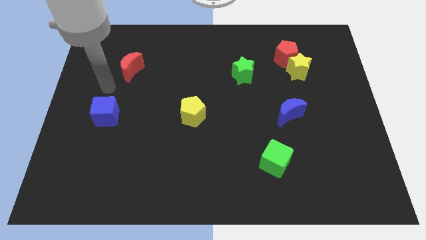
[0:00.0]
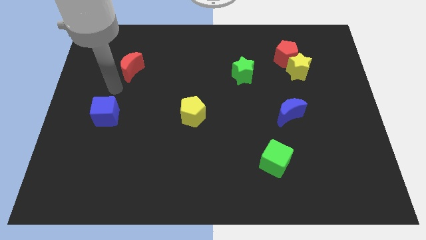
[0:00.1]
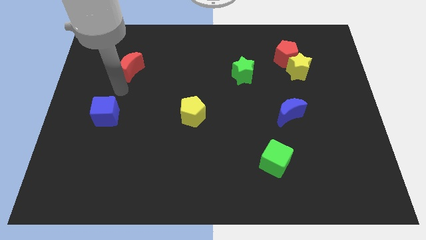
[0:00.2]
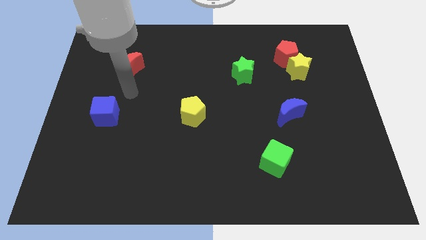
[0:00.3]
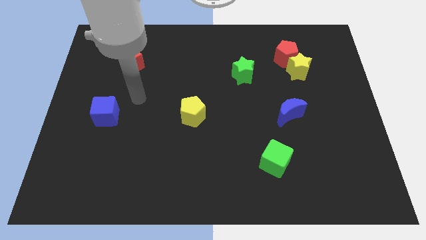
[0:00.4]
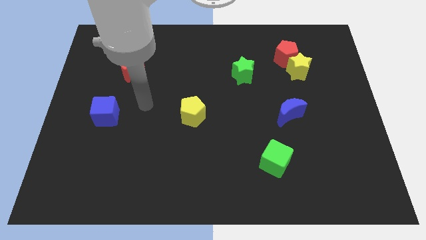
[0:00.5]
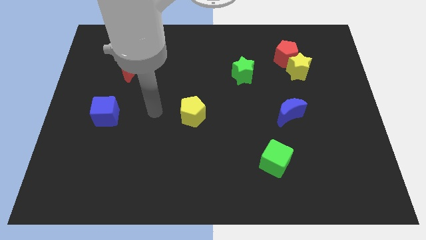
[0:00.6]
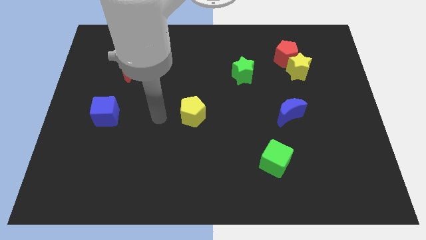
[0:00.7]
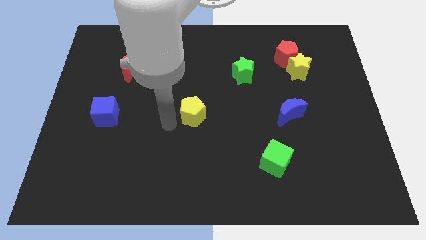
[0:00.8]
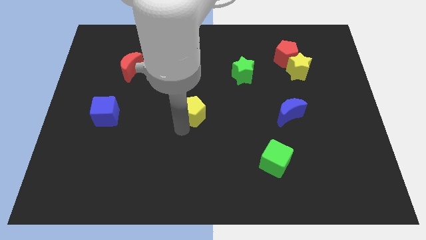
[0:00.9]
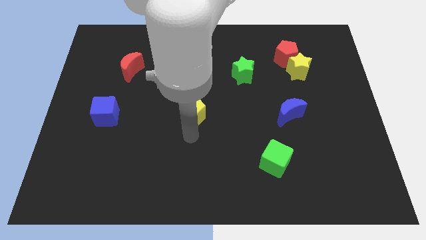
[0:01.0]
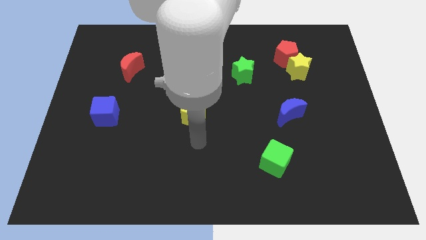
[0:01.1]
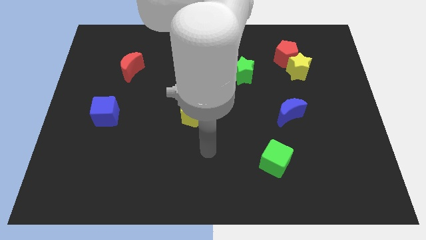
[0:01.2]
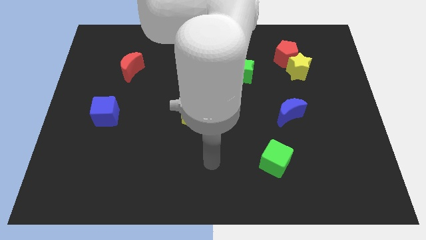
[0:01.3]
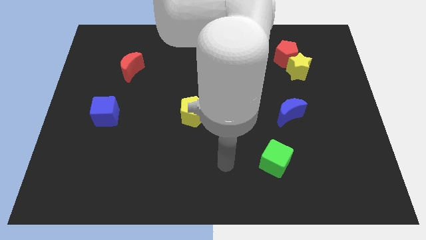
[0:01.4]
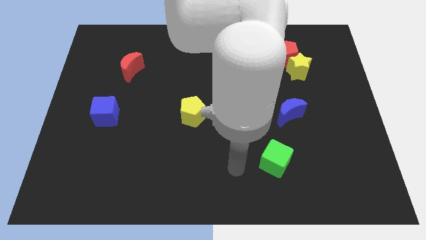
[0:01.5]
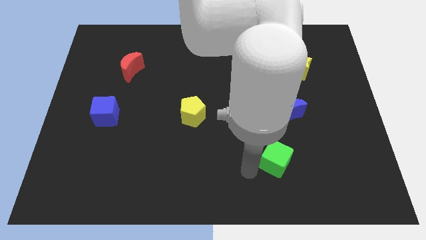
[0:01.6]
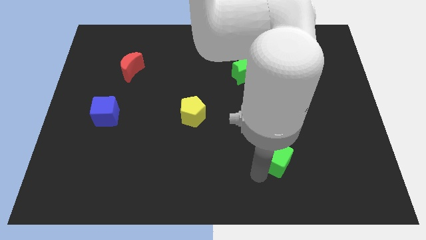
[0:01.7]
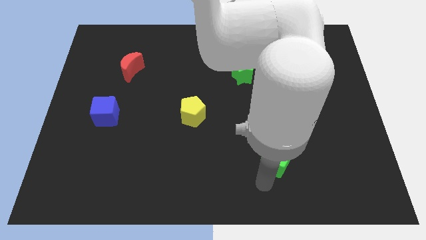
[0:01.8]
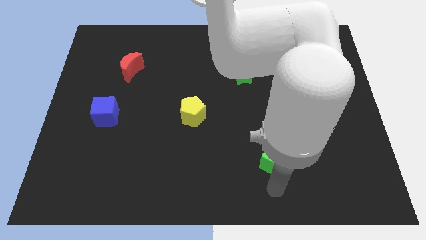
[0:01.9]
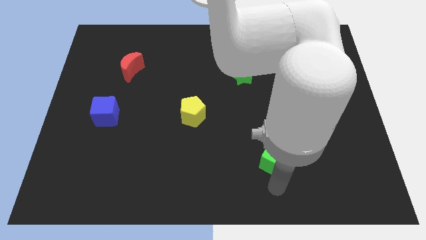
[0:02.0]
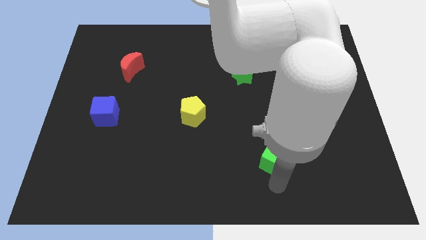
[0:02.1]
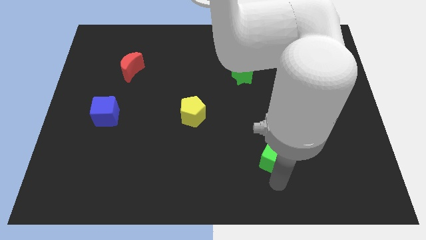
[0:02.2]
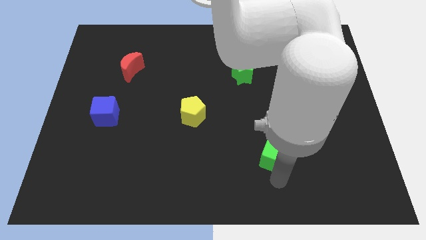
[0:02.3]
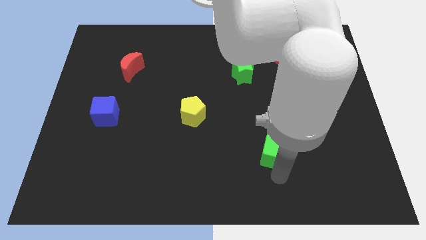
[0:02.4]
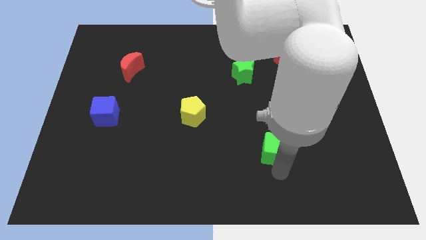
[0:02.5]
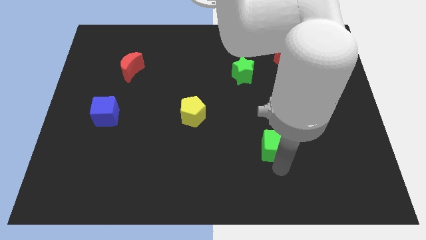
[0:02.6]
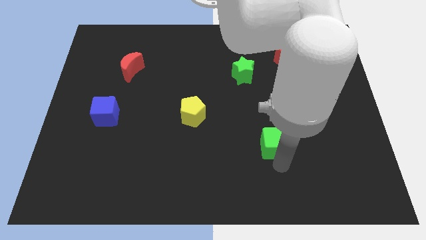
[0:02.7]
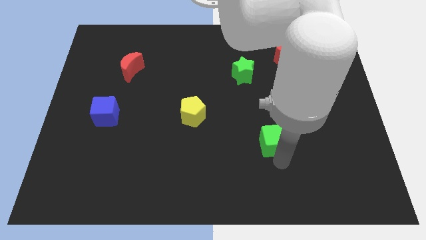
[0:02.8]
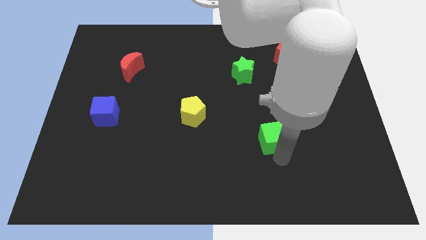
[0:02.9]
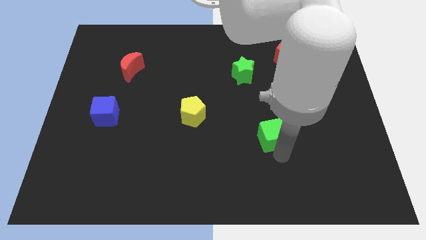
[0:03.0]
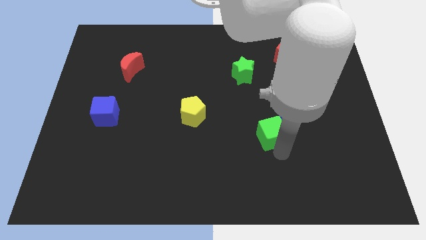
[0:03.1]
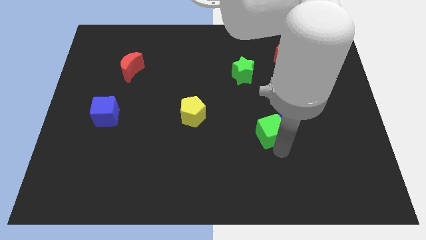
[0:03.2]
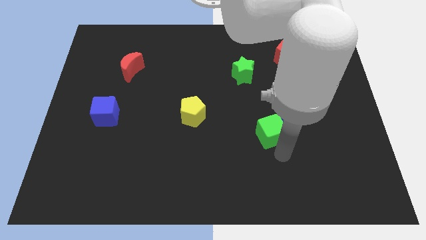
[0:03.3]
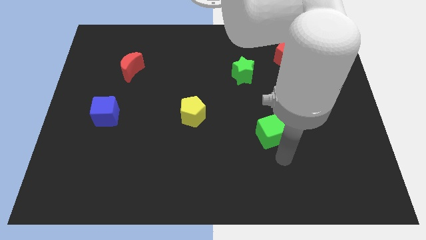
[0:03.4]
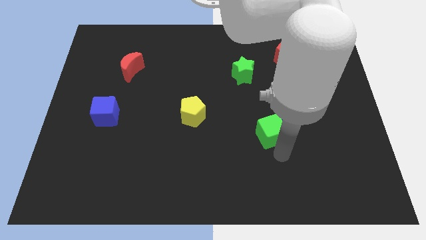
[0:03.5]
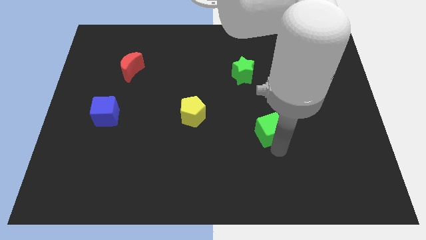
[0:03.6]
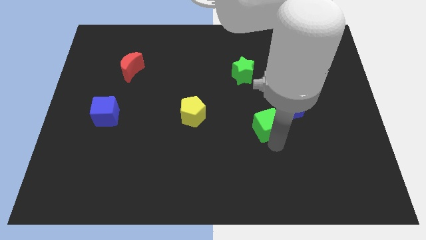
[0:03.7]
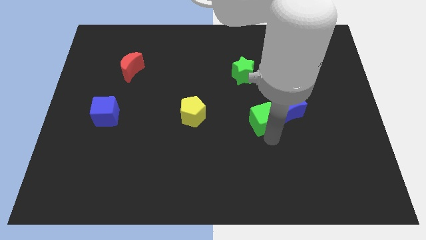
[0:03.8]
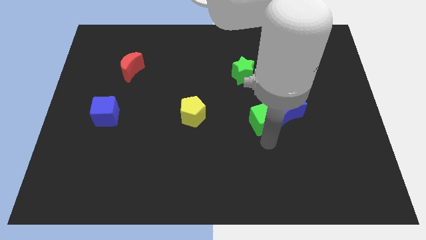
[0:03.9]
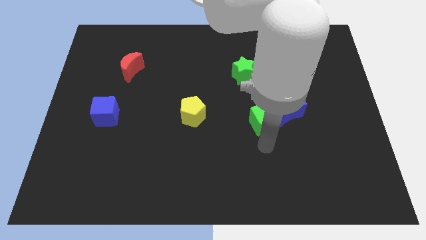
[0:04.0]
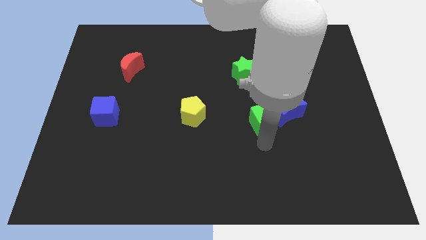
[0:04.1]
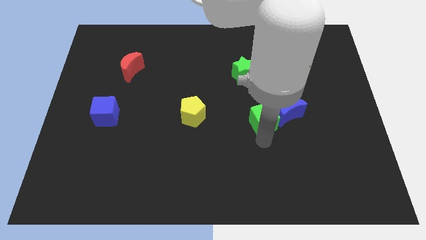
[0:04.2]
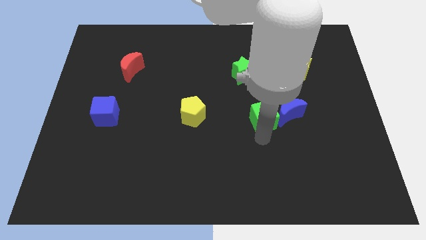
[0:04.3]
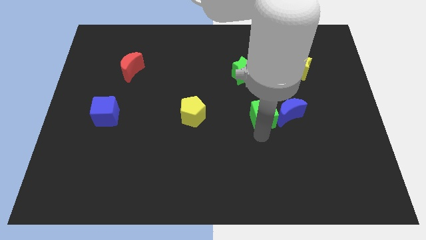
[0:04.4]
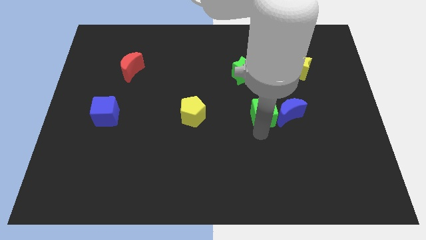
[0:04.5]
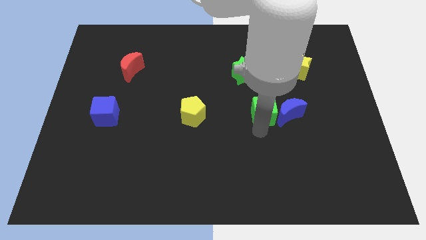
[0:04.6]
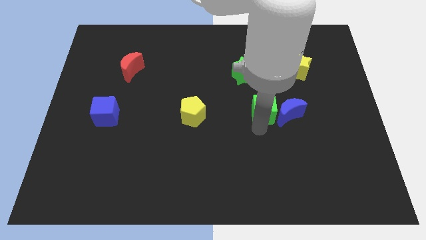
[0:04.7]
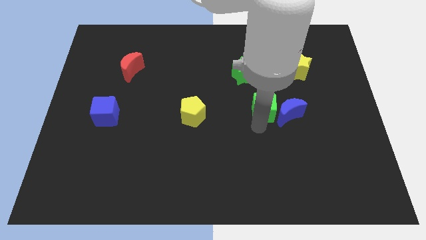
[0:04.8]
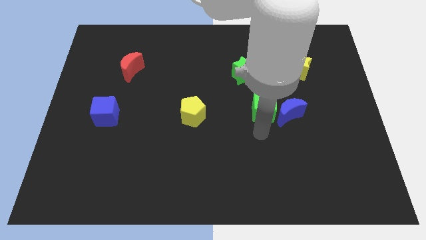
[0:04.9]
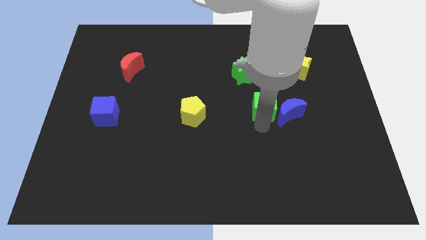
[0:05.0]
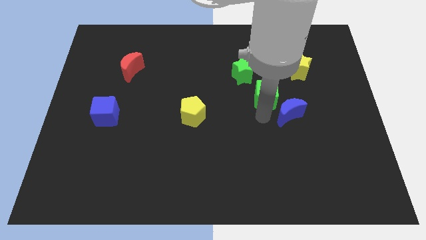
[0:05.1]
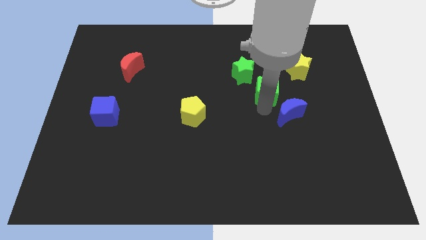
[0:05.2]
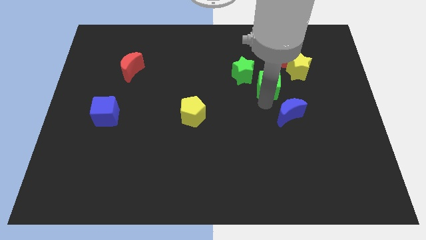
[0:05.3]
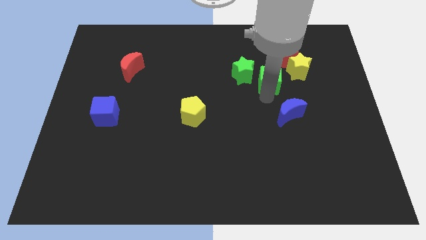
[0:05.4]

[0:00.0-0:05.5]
slide the green cube diagonally down and to the left of the red pentagon

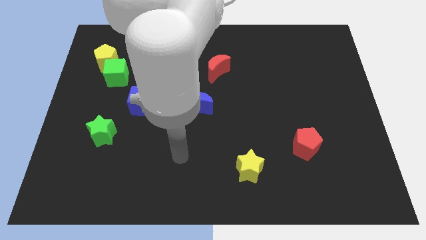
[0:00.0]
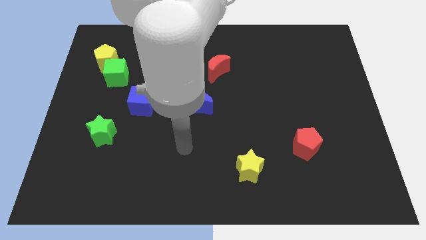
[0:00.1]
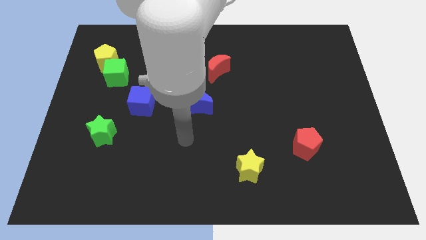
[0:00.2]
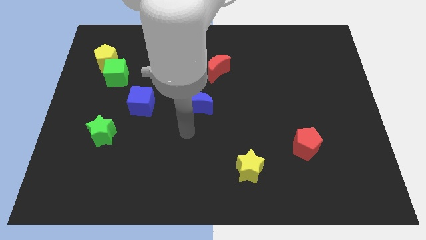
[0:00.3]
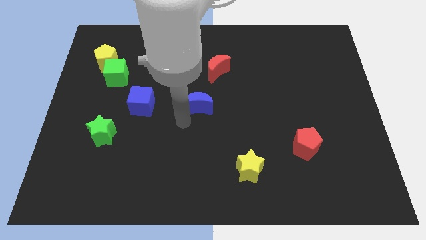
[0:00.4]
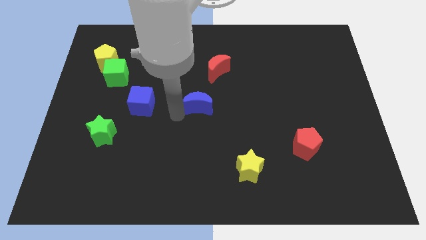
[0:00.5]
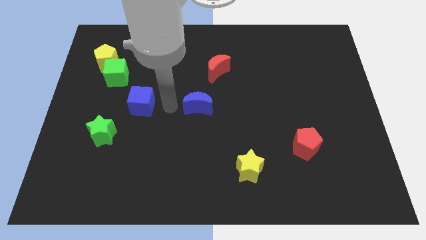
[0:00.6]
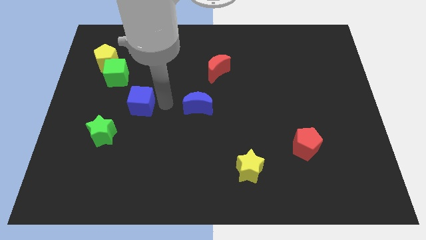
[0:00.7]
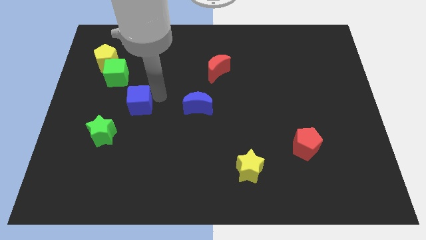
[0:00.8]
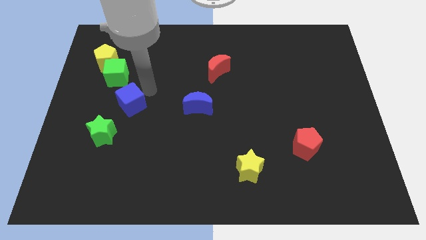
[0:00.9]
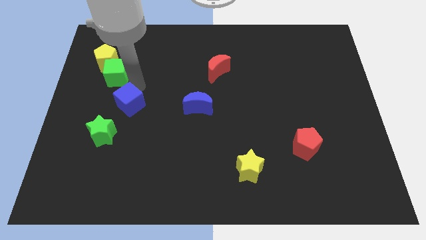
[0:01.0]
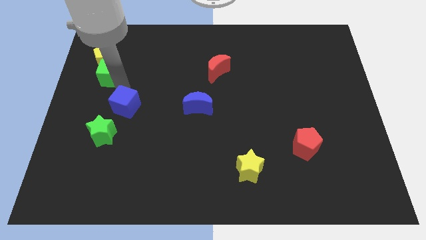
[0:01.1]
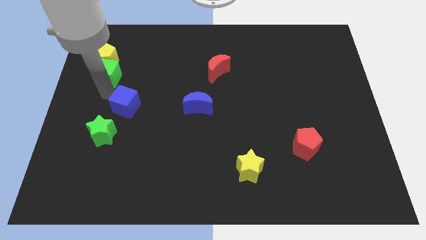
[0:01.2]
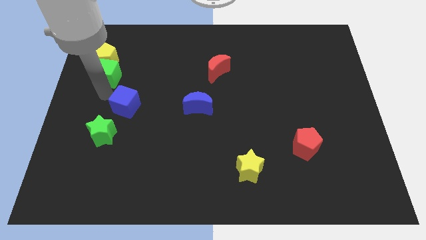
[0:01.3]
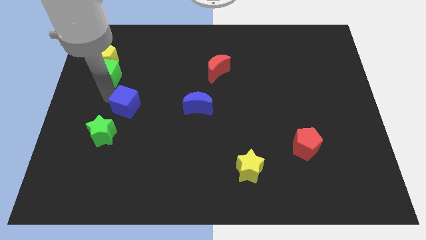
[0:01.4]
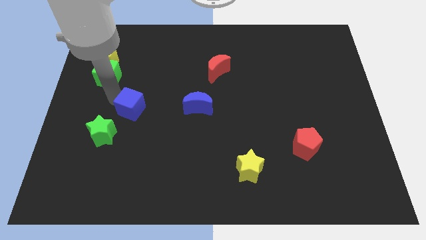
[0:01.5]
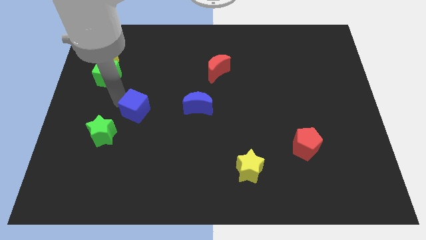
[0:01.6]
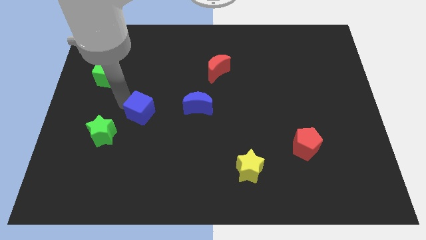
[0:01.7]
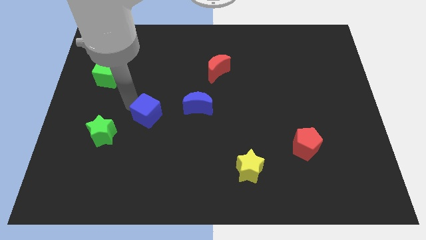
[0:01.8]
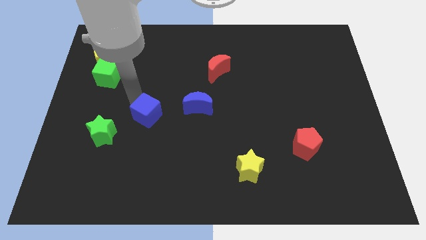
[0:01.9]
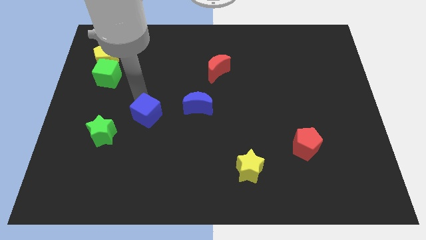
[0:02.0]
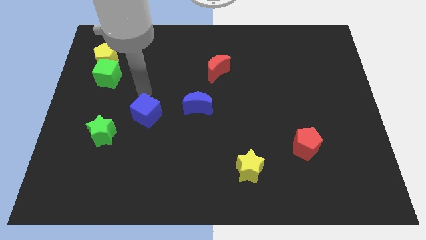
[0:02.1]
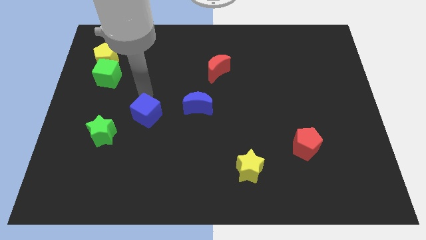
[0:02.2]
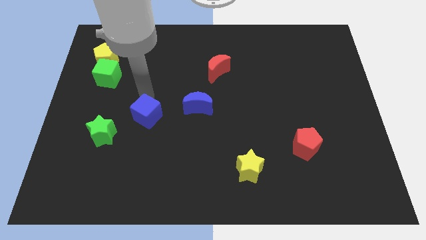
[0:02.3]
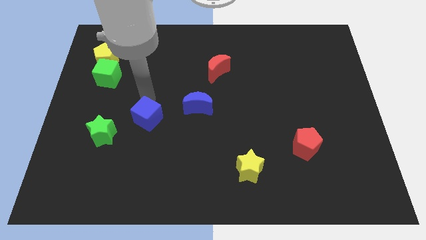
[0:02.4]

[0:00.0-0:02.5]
put the blue cube to the right of the green star

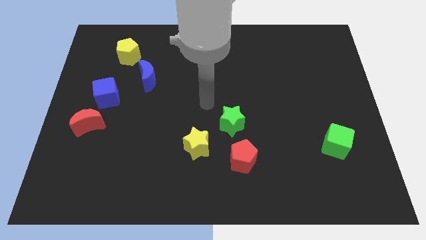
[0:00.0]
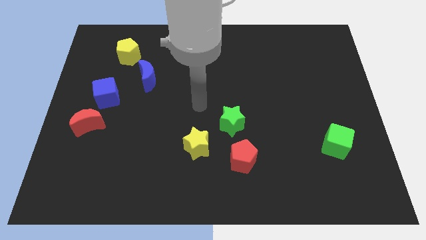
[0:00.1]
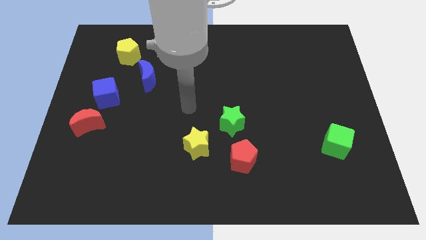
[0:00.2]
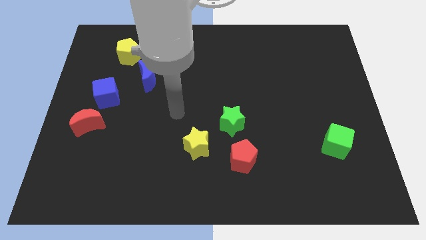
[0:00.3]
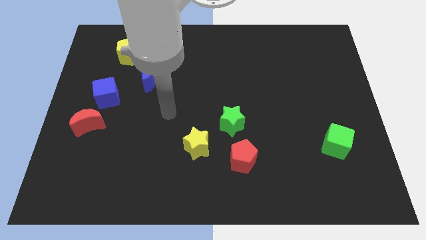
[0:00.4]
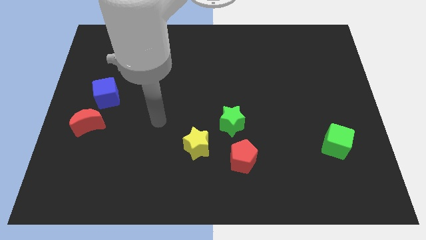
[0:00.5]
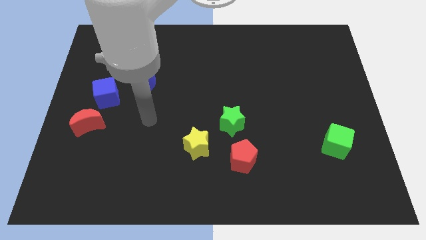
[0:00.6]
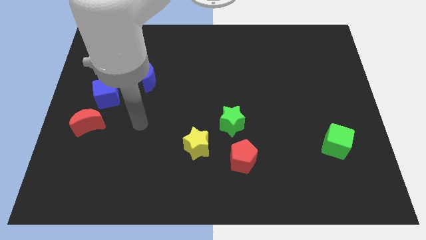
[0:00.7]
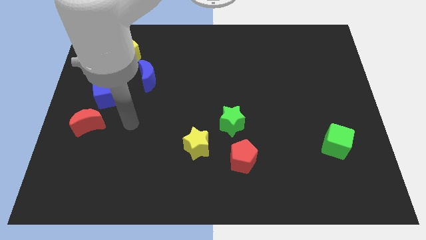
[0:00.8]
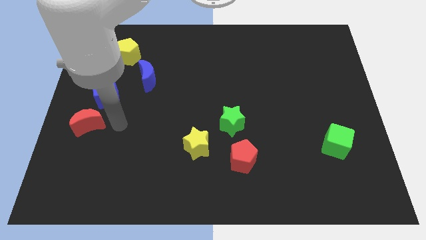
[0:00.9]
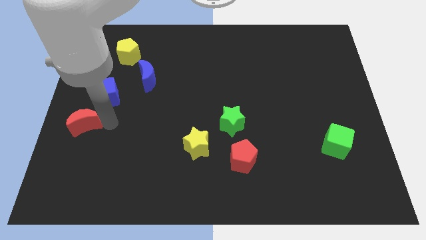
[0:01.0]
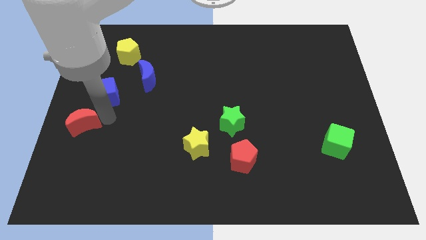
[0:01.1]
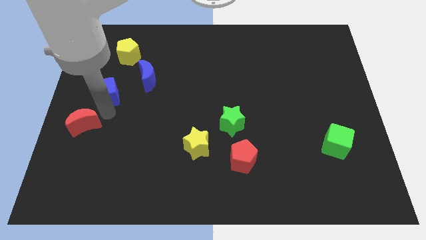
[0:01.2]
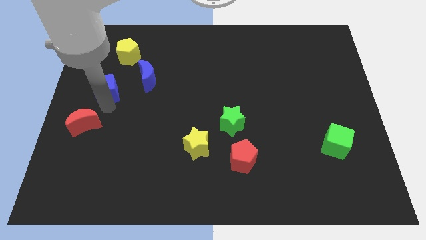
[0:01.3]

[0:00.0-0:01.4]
slide the blue cube left of the blue moon
